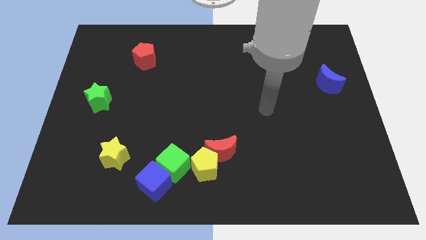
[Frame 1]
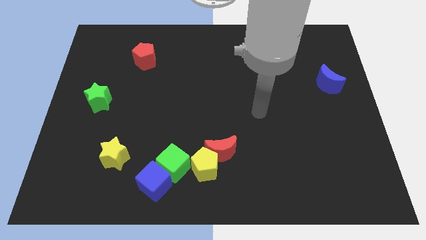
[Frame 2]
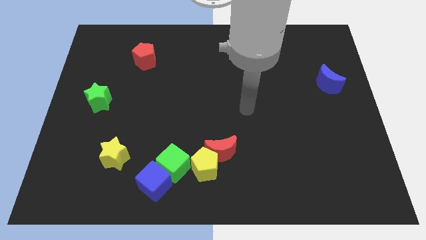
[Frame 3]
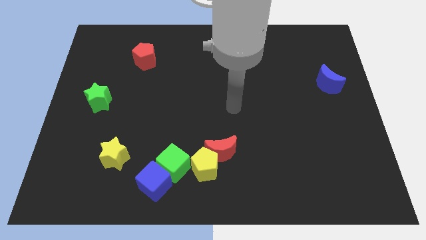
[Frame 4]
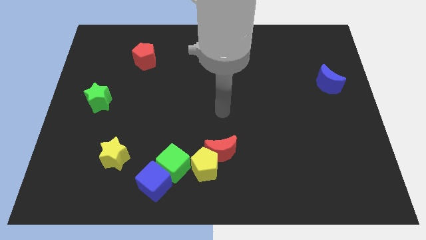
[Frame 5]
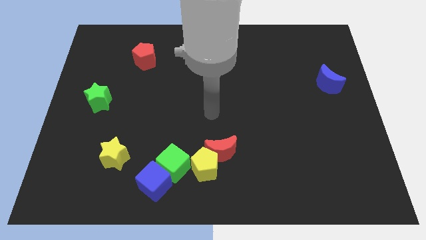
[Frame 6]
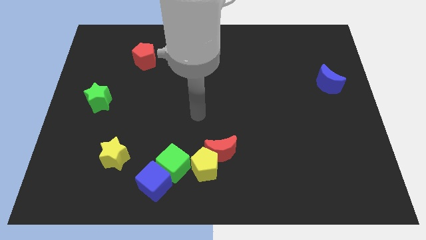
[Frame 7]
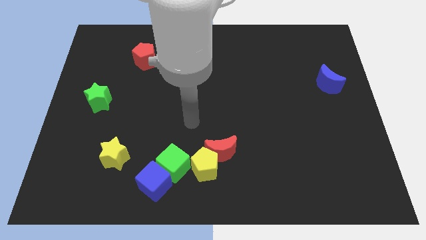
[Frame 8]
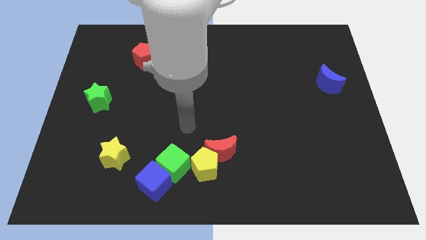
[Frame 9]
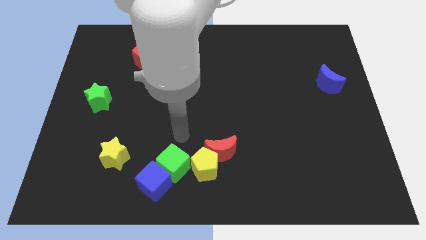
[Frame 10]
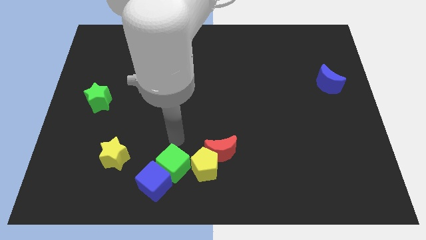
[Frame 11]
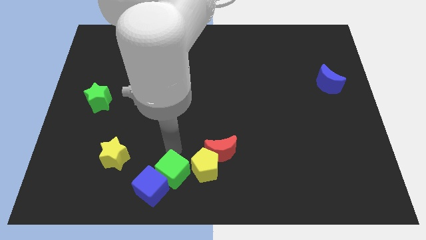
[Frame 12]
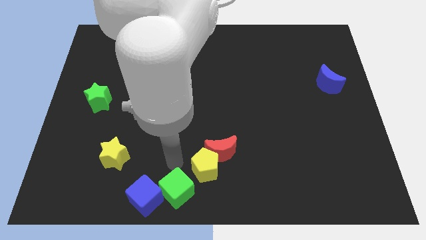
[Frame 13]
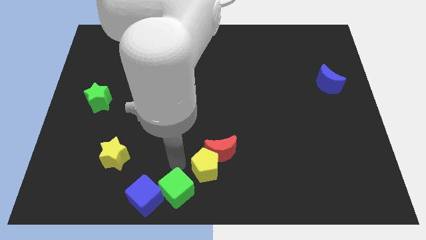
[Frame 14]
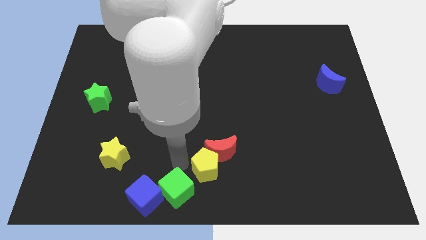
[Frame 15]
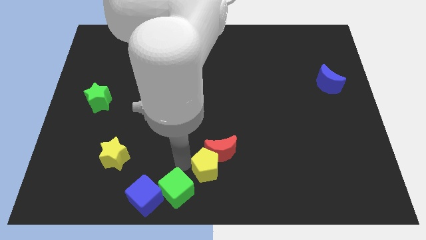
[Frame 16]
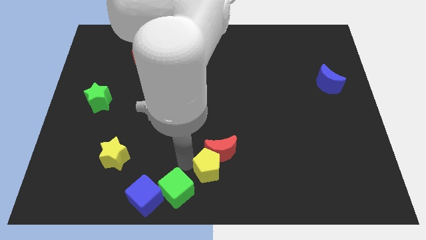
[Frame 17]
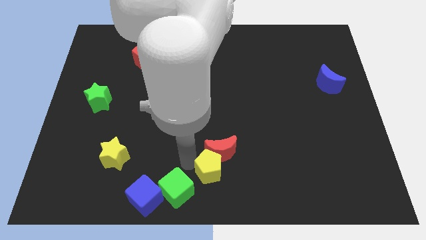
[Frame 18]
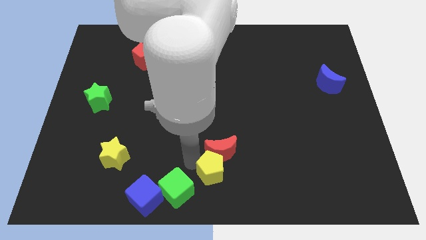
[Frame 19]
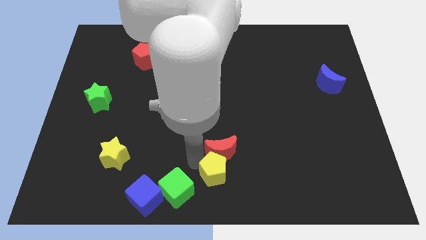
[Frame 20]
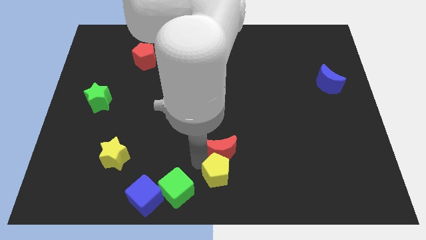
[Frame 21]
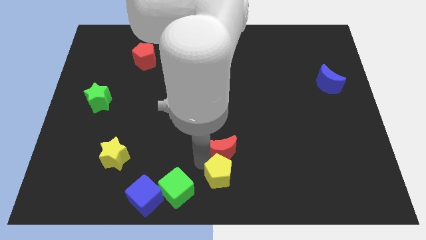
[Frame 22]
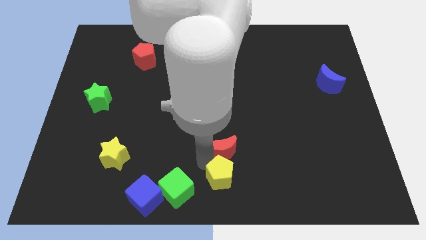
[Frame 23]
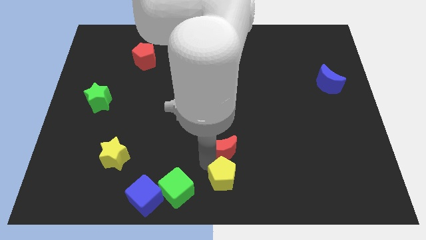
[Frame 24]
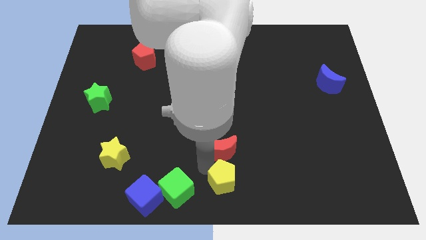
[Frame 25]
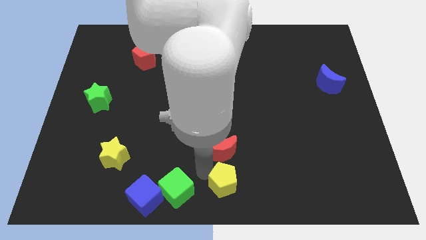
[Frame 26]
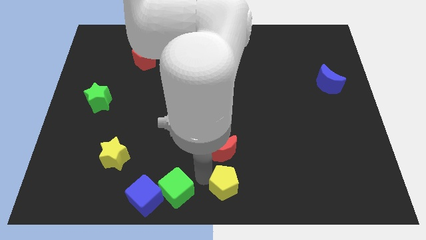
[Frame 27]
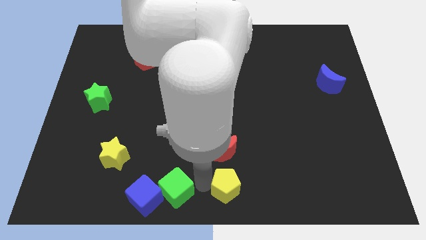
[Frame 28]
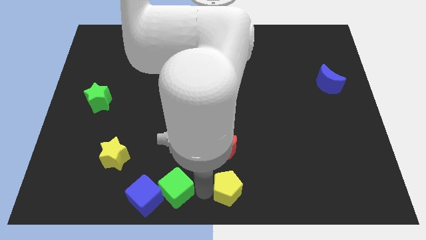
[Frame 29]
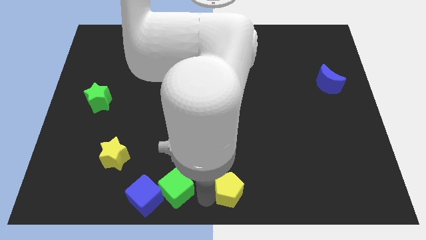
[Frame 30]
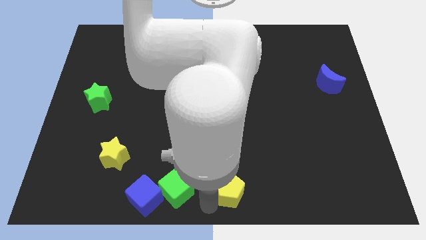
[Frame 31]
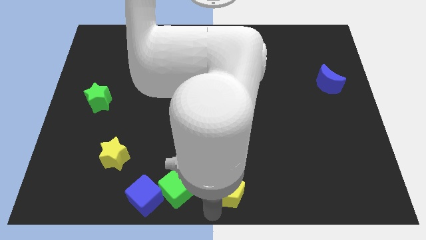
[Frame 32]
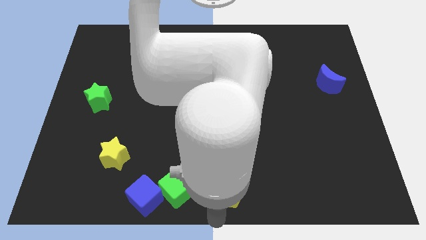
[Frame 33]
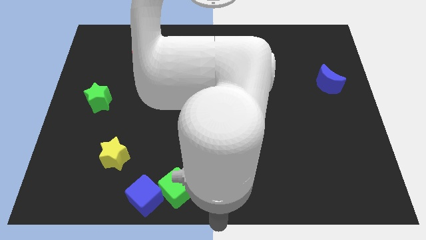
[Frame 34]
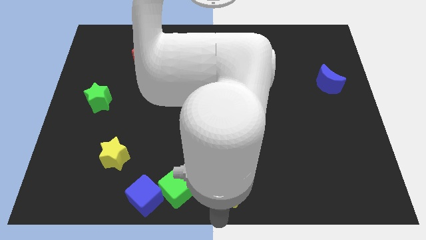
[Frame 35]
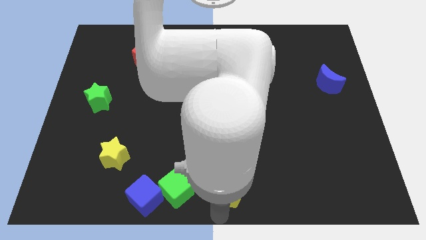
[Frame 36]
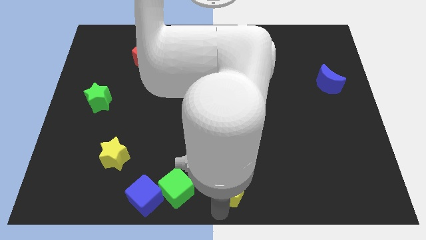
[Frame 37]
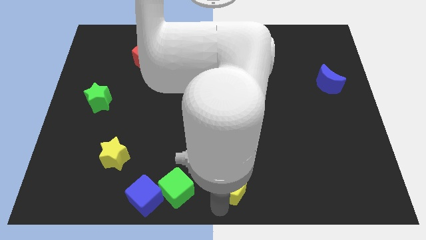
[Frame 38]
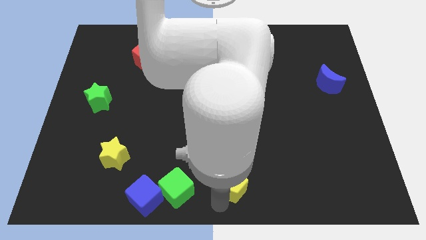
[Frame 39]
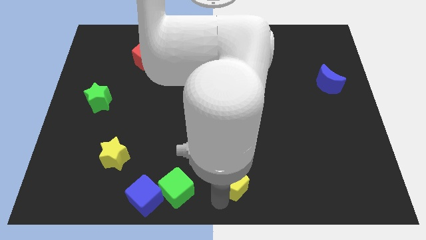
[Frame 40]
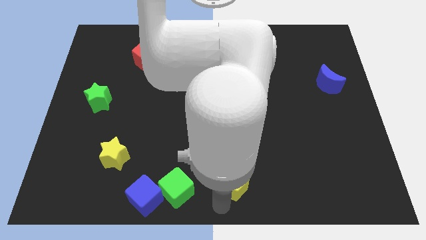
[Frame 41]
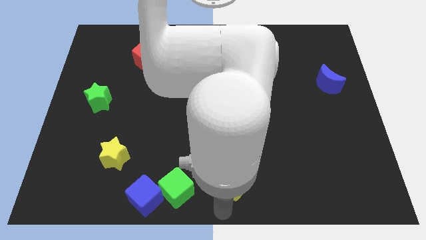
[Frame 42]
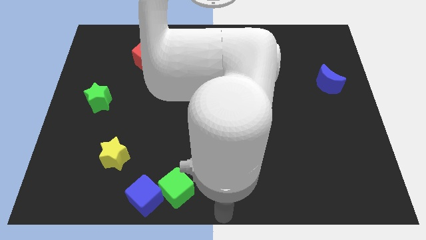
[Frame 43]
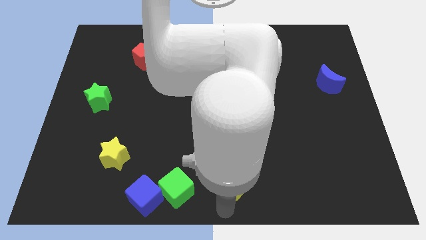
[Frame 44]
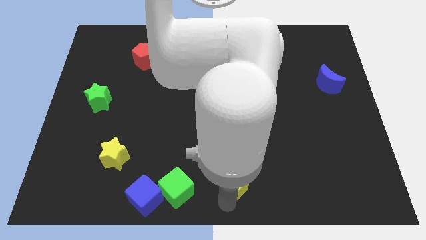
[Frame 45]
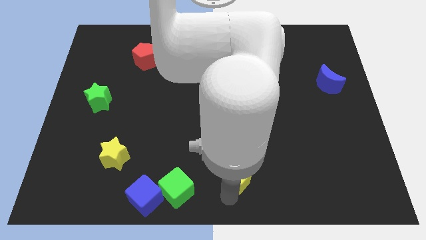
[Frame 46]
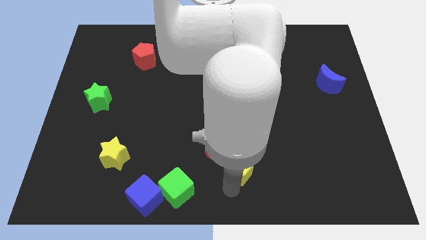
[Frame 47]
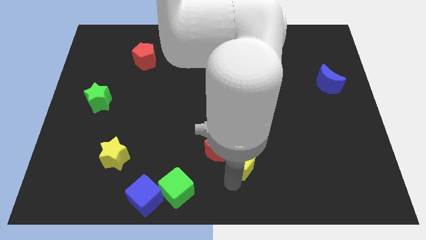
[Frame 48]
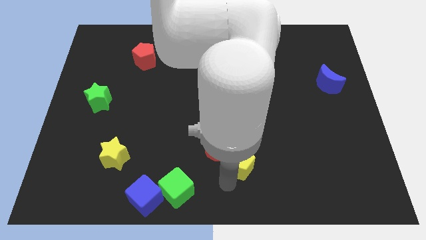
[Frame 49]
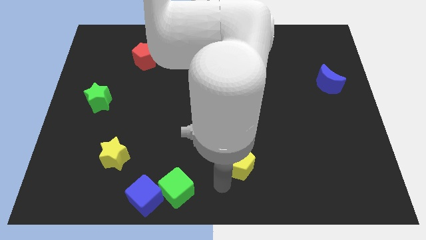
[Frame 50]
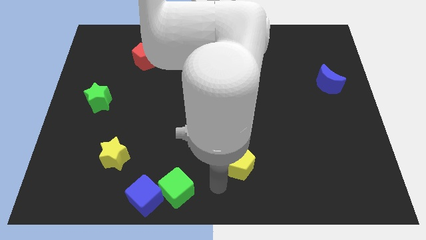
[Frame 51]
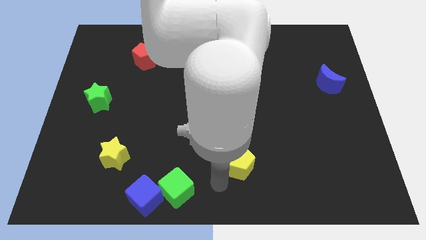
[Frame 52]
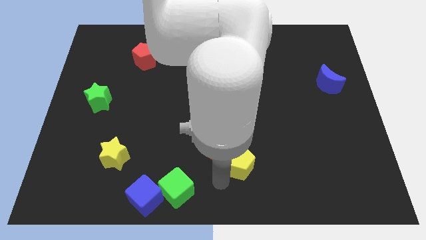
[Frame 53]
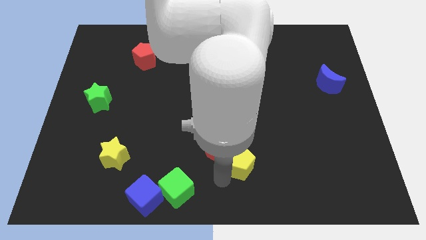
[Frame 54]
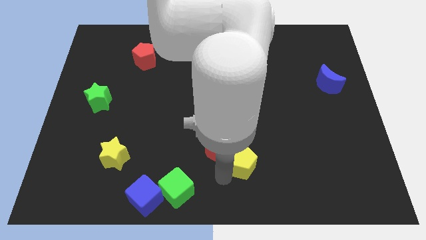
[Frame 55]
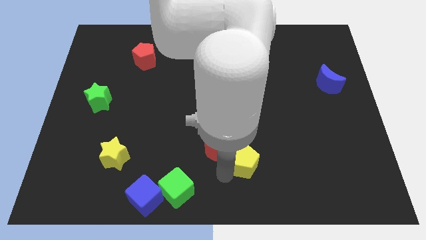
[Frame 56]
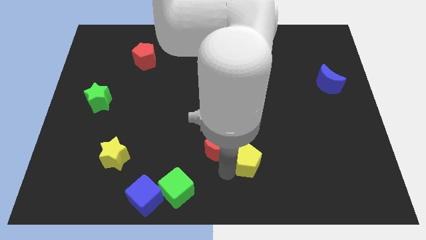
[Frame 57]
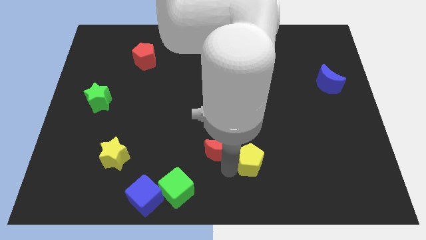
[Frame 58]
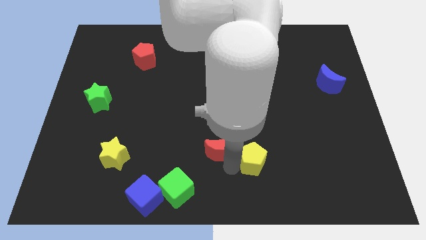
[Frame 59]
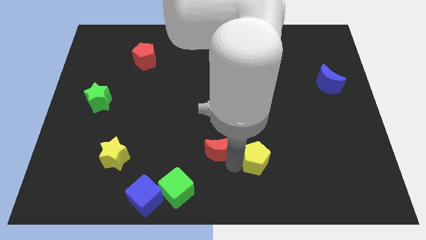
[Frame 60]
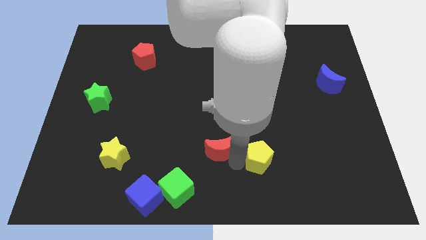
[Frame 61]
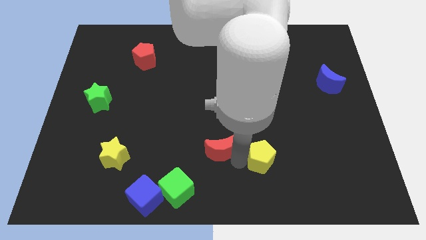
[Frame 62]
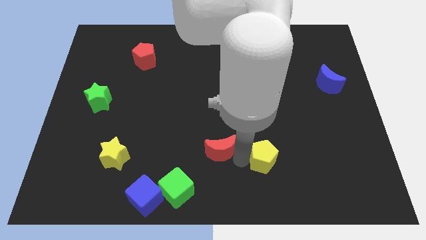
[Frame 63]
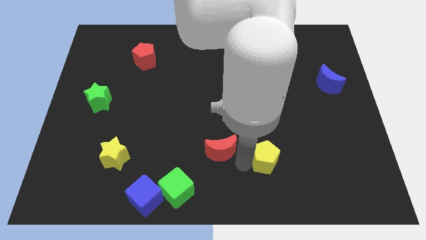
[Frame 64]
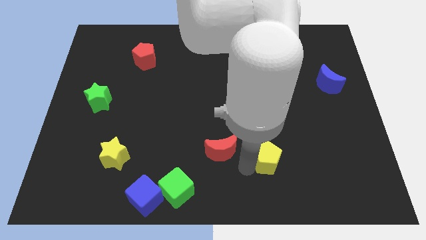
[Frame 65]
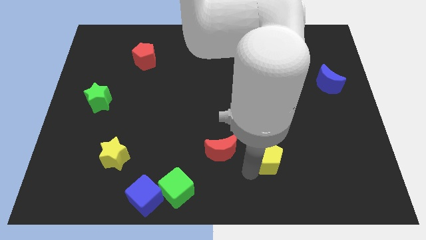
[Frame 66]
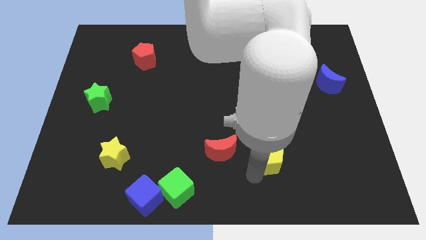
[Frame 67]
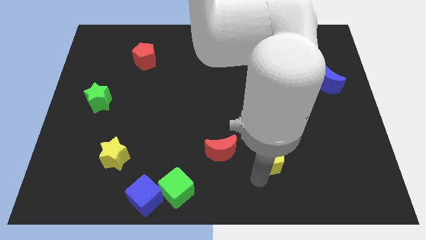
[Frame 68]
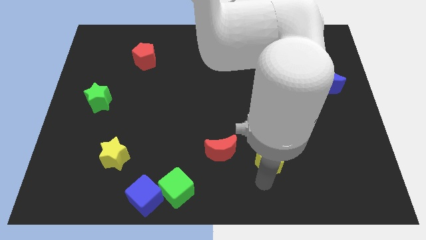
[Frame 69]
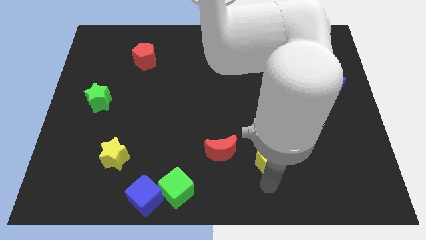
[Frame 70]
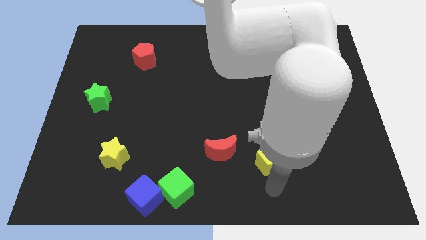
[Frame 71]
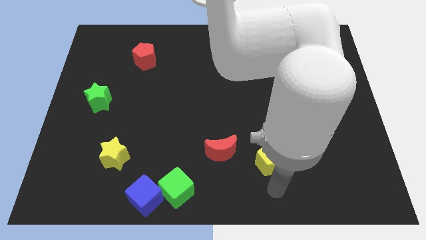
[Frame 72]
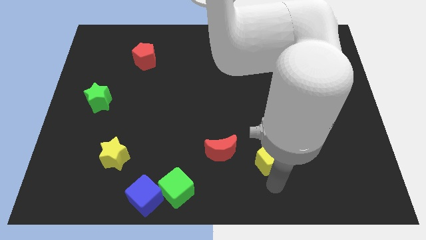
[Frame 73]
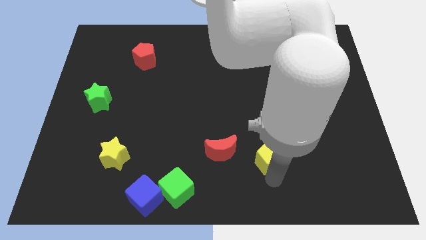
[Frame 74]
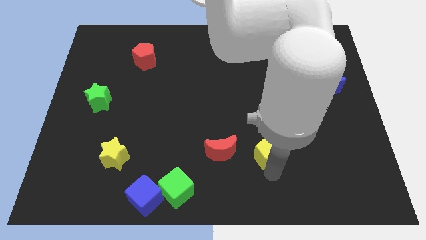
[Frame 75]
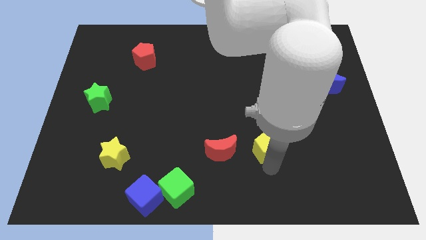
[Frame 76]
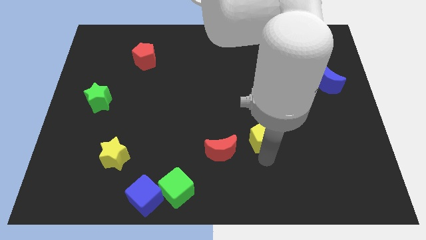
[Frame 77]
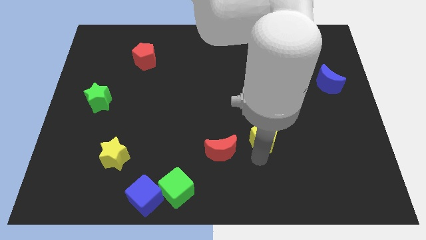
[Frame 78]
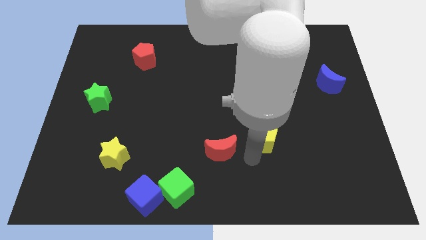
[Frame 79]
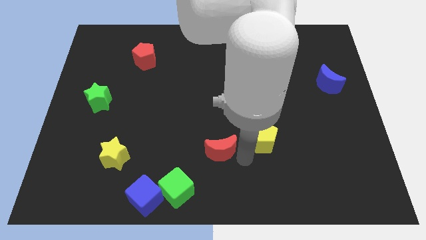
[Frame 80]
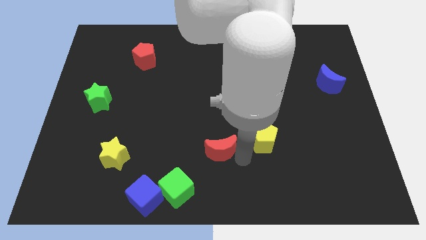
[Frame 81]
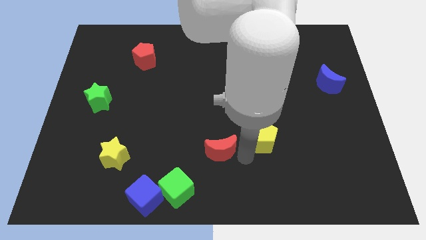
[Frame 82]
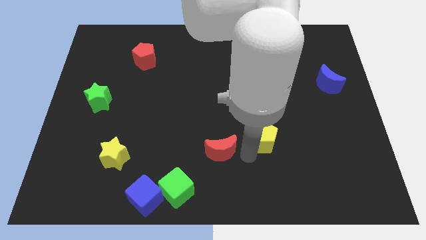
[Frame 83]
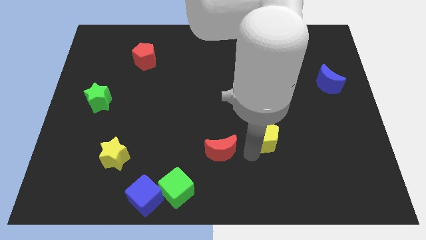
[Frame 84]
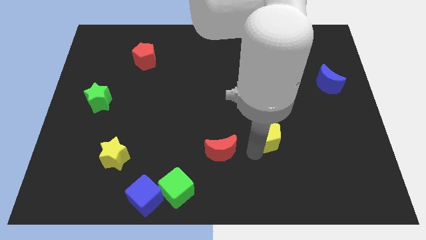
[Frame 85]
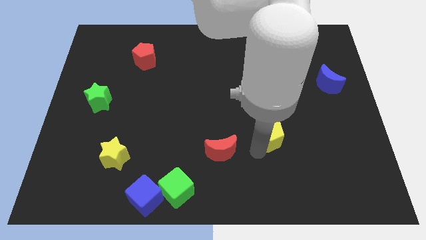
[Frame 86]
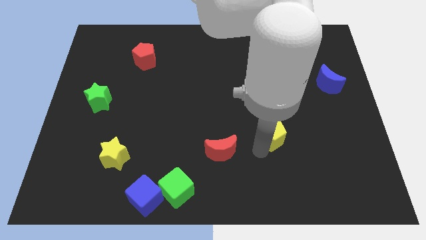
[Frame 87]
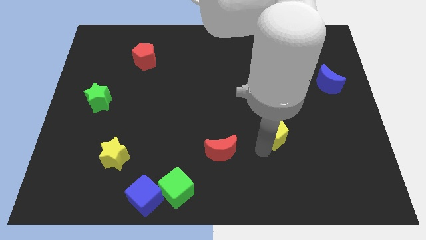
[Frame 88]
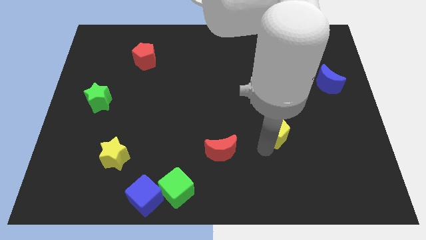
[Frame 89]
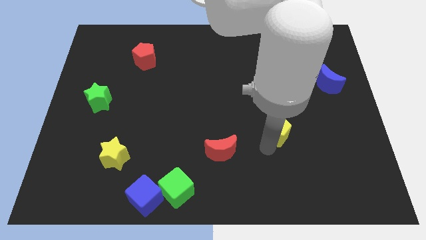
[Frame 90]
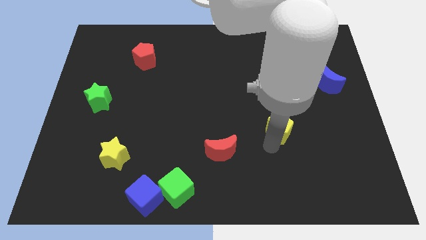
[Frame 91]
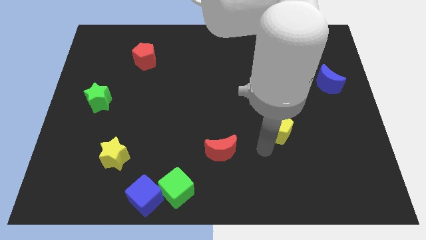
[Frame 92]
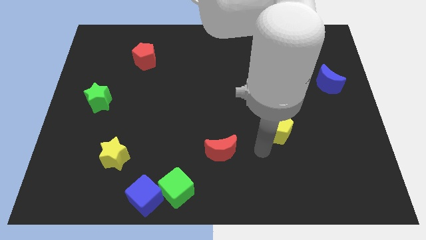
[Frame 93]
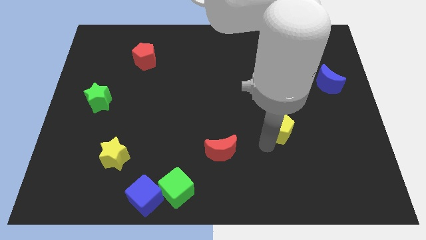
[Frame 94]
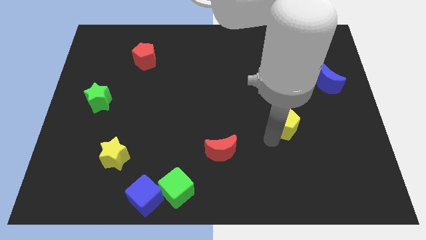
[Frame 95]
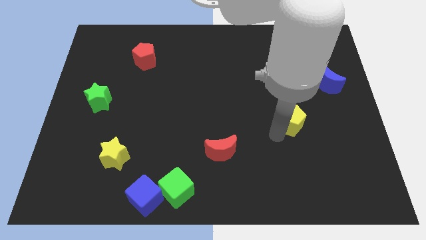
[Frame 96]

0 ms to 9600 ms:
push the yellow pentagon diagonally upwards and to the right
